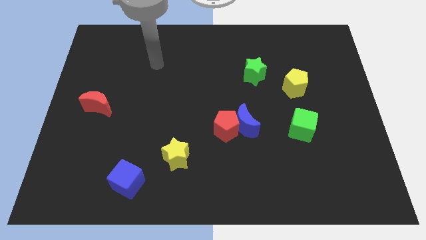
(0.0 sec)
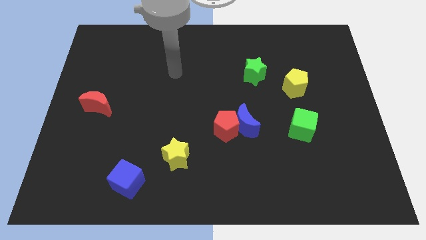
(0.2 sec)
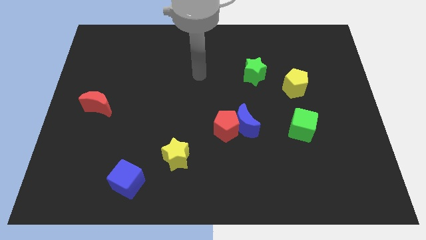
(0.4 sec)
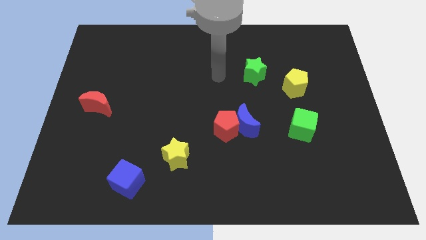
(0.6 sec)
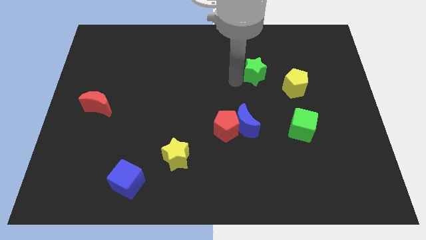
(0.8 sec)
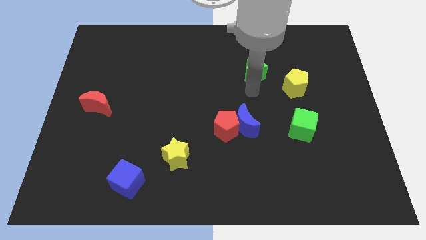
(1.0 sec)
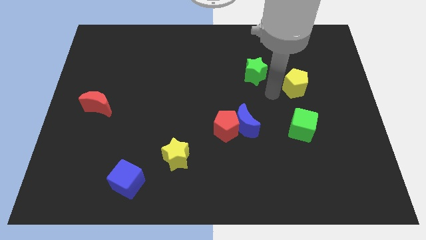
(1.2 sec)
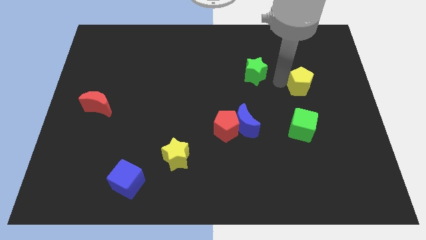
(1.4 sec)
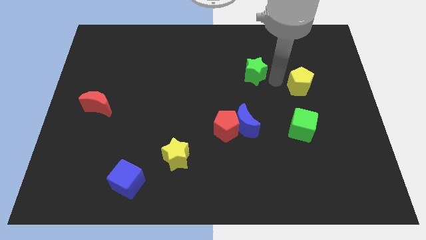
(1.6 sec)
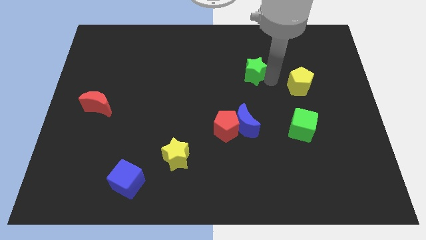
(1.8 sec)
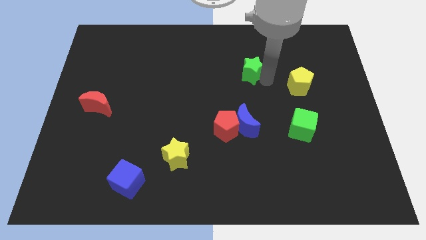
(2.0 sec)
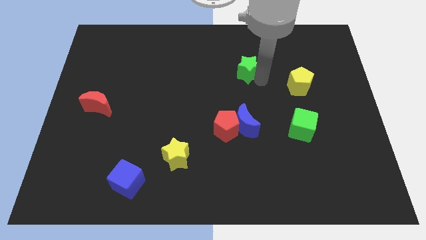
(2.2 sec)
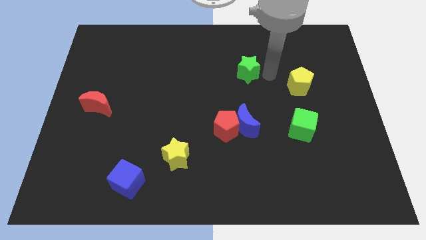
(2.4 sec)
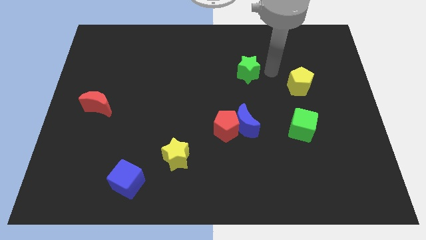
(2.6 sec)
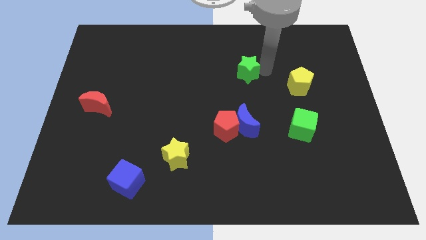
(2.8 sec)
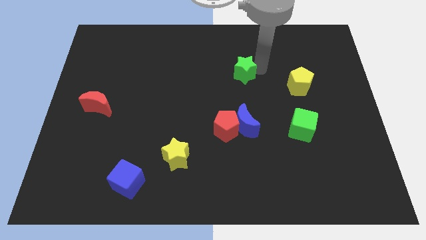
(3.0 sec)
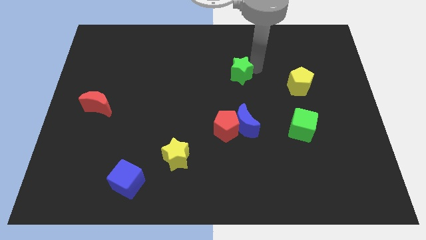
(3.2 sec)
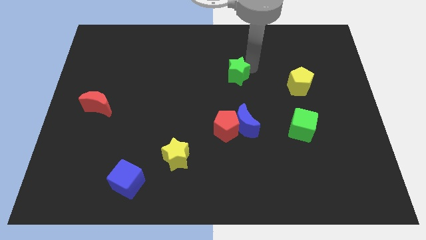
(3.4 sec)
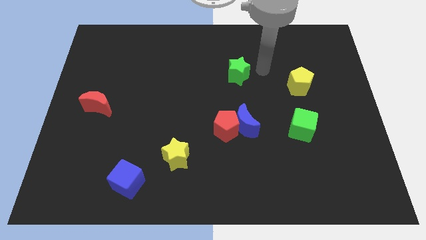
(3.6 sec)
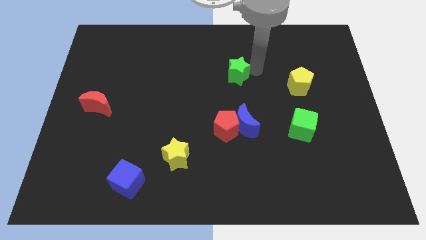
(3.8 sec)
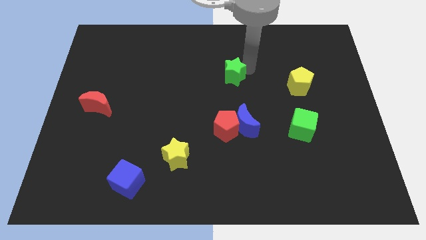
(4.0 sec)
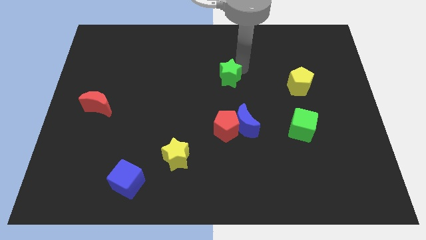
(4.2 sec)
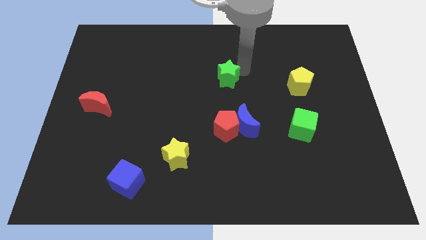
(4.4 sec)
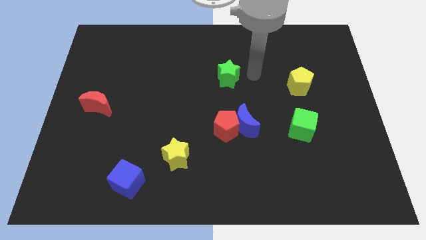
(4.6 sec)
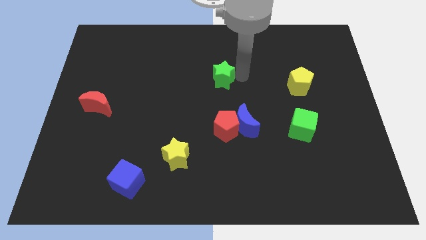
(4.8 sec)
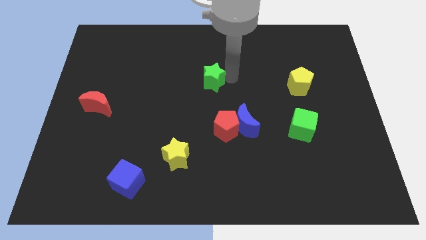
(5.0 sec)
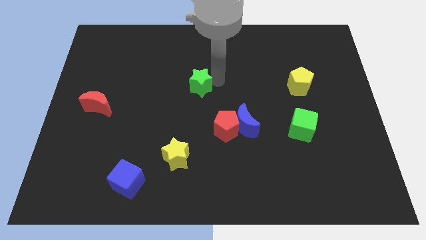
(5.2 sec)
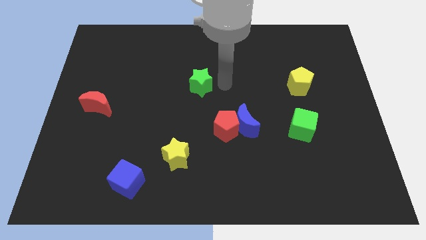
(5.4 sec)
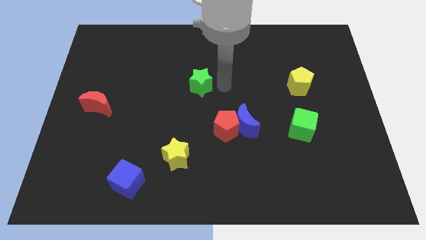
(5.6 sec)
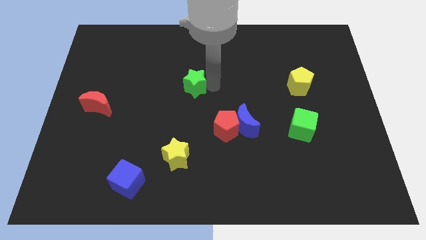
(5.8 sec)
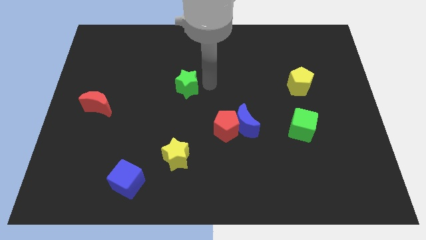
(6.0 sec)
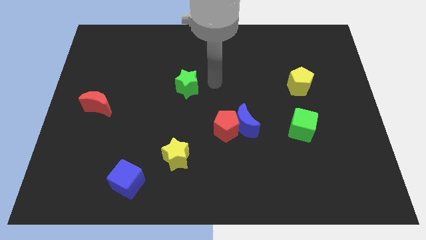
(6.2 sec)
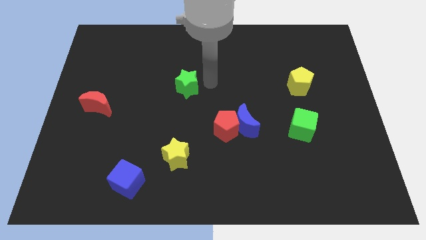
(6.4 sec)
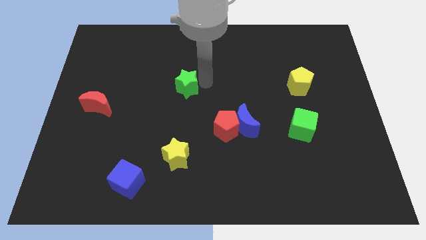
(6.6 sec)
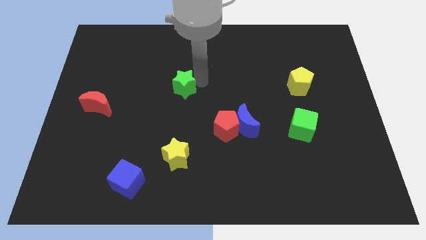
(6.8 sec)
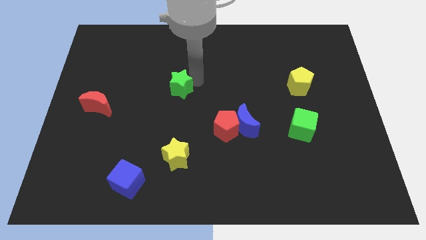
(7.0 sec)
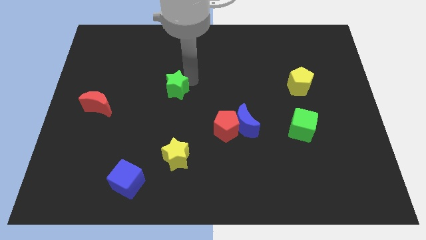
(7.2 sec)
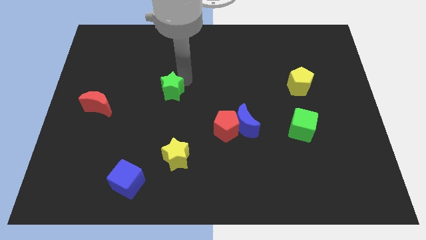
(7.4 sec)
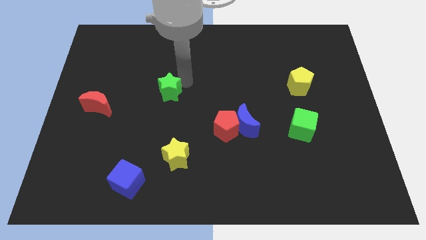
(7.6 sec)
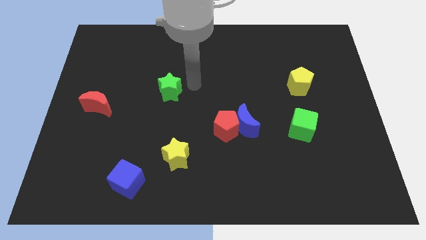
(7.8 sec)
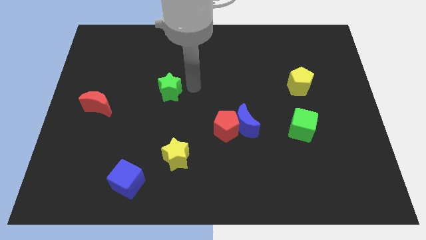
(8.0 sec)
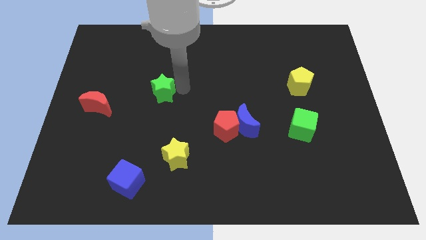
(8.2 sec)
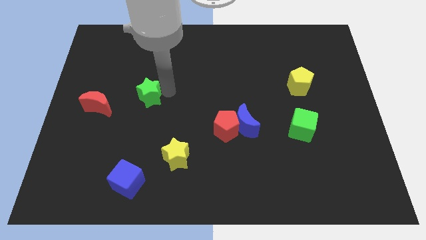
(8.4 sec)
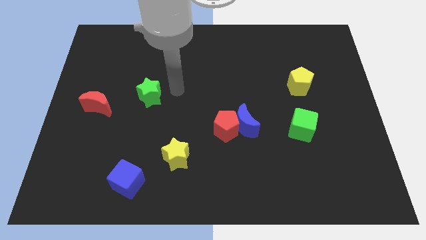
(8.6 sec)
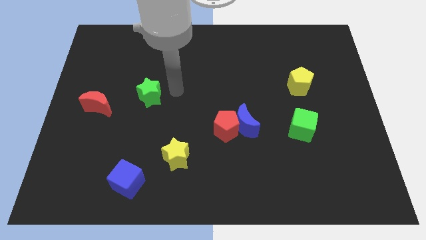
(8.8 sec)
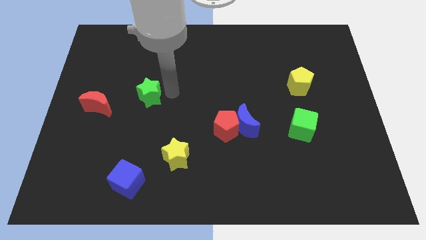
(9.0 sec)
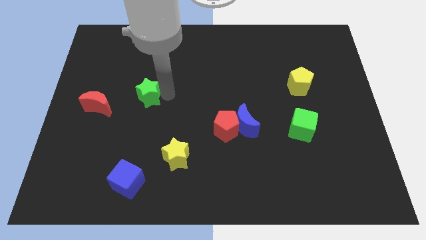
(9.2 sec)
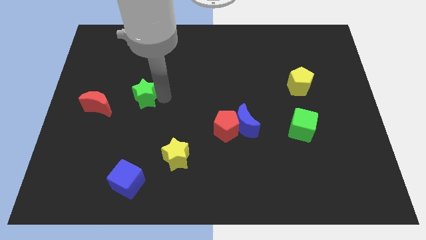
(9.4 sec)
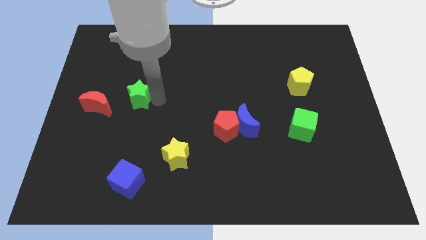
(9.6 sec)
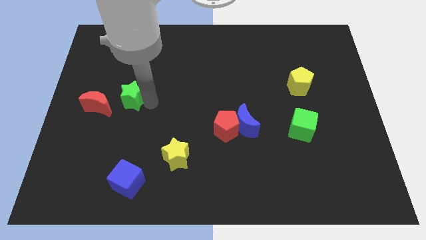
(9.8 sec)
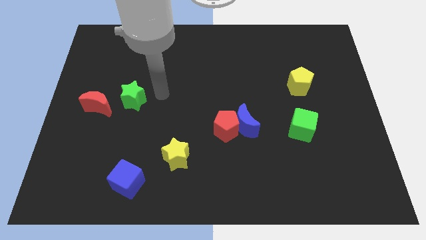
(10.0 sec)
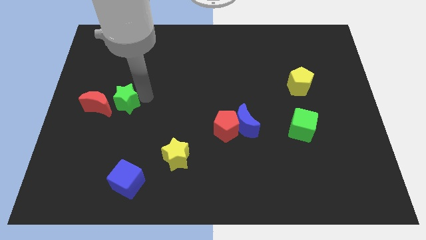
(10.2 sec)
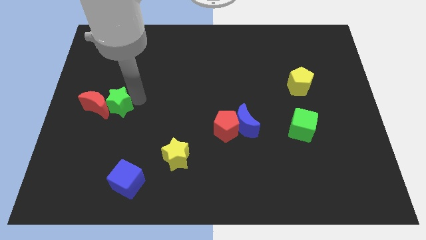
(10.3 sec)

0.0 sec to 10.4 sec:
push the green star to the red moon

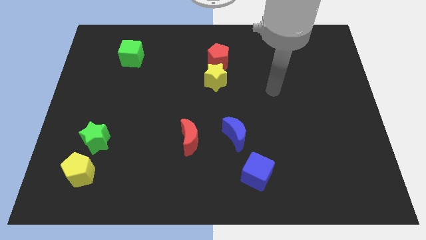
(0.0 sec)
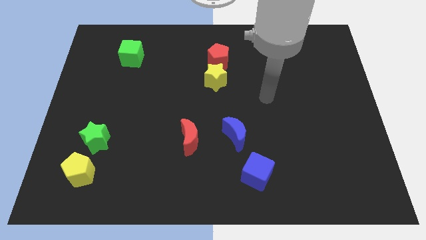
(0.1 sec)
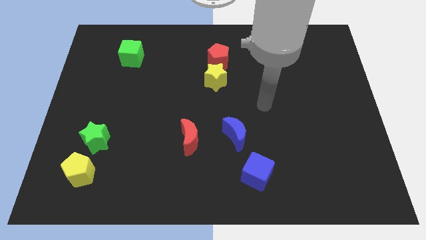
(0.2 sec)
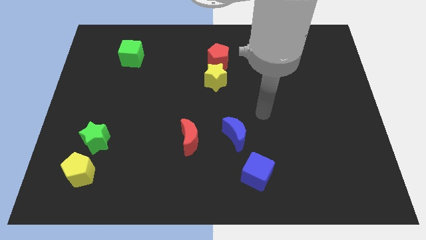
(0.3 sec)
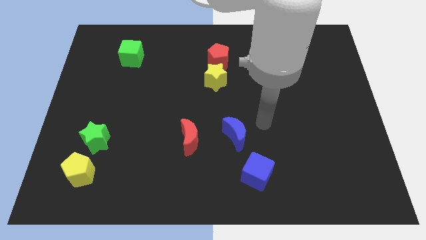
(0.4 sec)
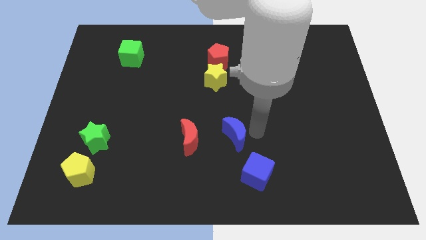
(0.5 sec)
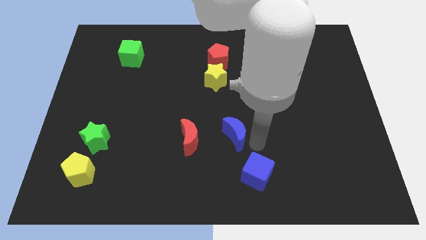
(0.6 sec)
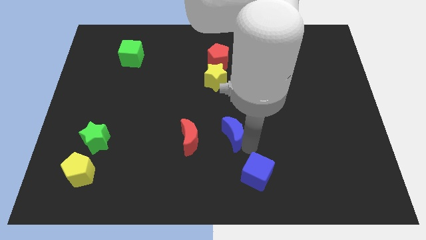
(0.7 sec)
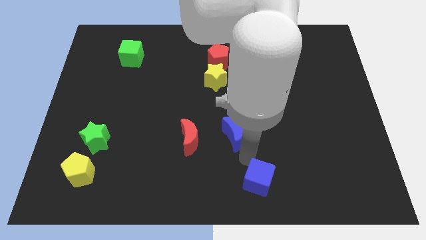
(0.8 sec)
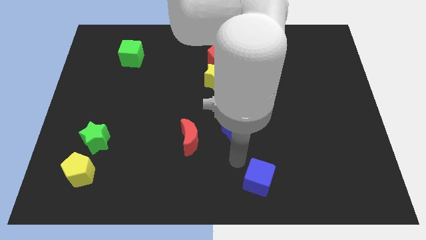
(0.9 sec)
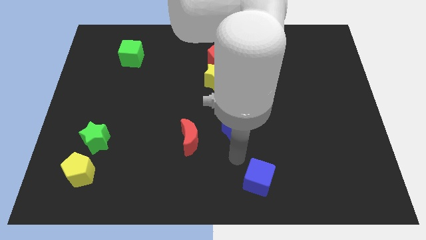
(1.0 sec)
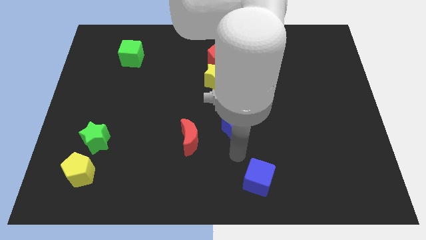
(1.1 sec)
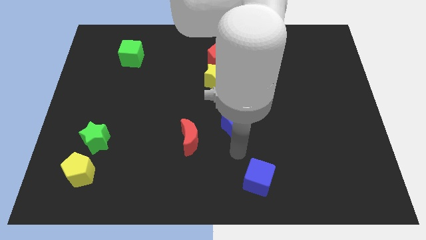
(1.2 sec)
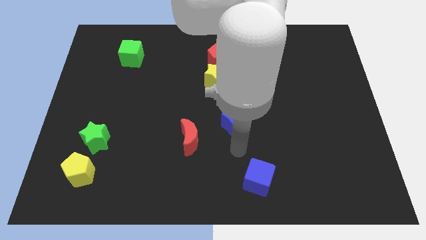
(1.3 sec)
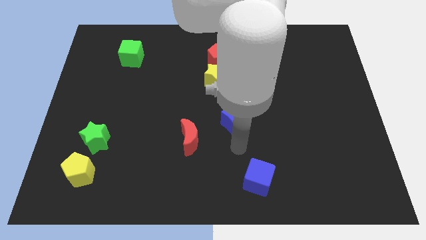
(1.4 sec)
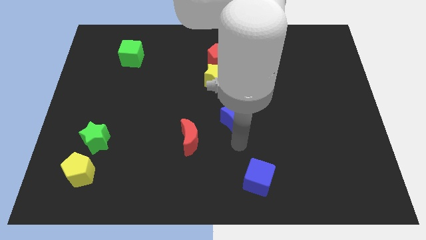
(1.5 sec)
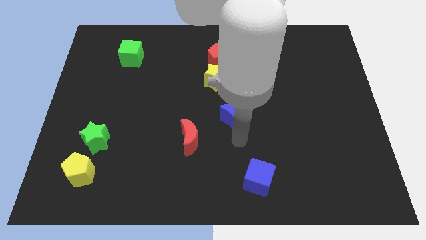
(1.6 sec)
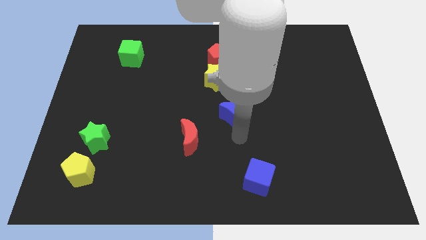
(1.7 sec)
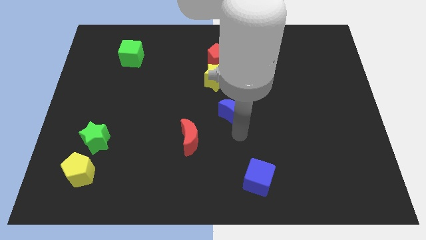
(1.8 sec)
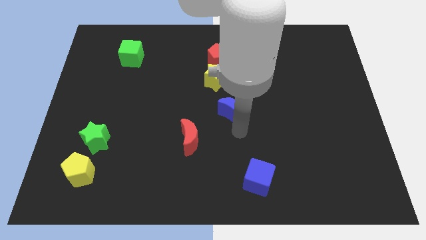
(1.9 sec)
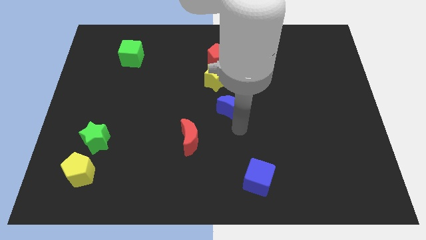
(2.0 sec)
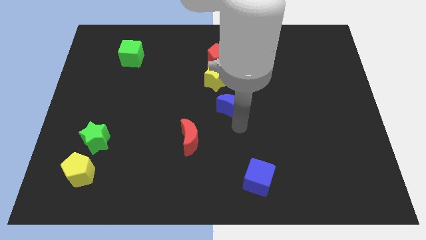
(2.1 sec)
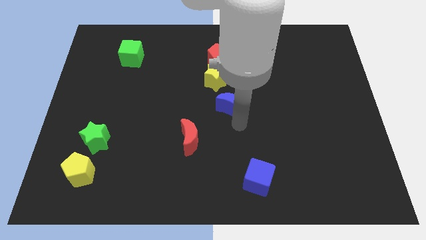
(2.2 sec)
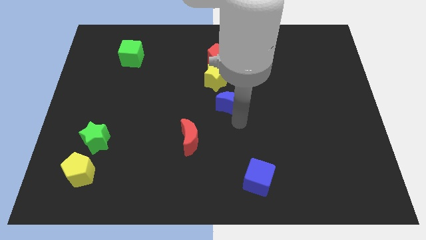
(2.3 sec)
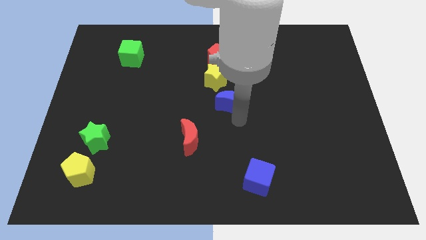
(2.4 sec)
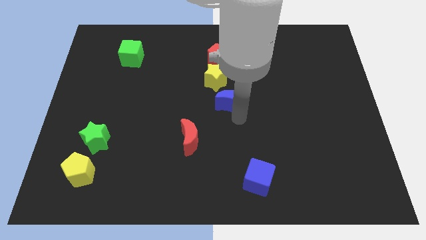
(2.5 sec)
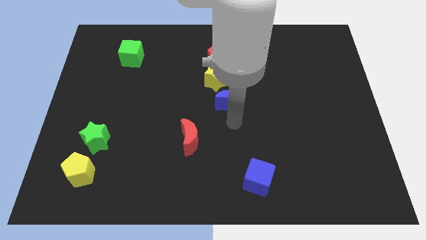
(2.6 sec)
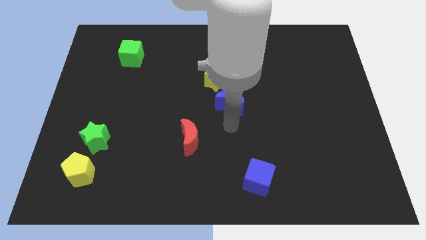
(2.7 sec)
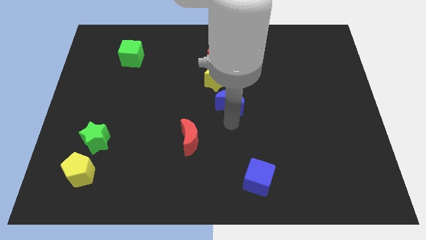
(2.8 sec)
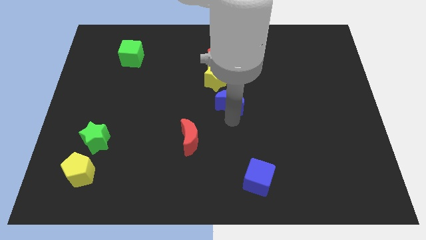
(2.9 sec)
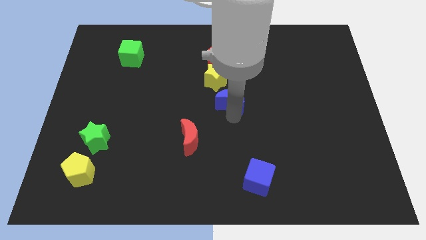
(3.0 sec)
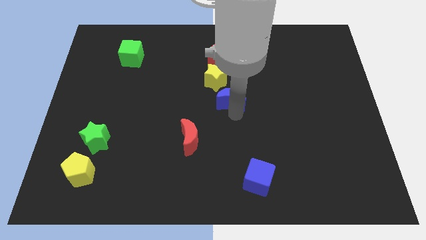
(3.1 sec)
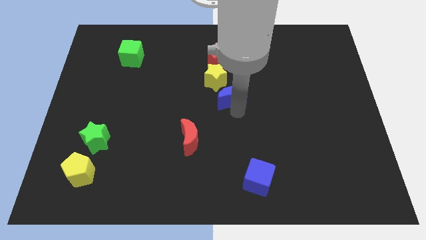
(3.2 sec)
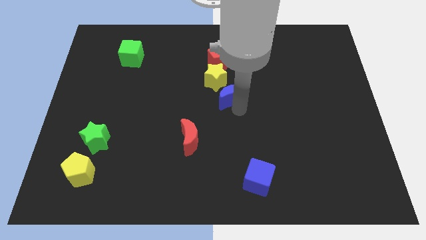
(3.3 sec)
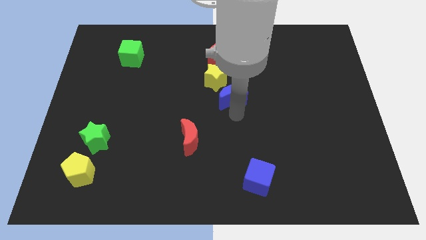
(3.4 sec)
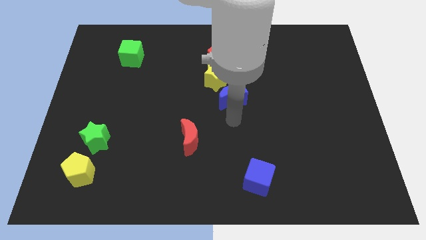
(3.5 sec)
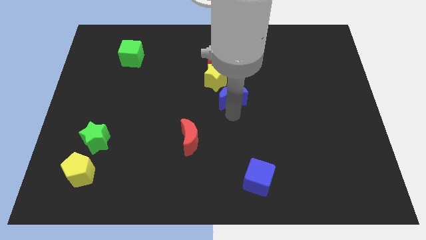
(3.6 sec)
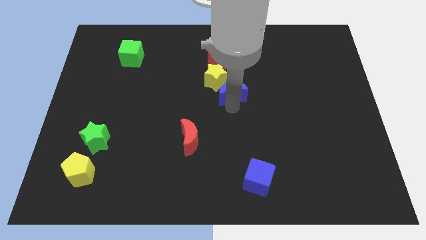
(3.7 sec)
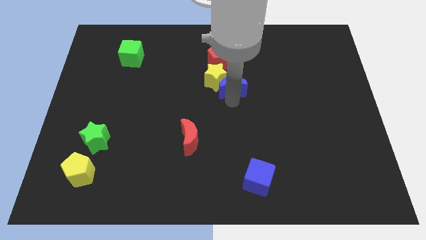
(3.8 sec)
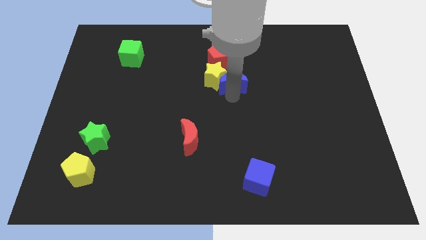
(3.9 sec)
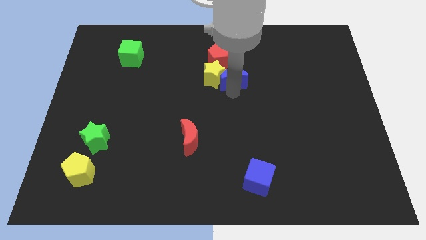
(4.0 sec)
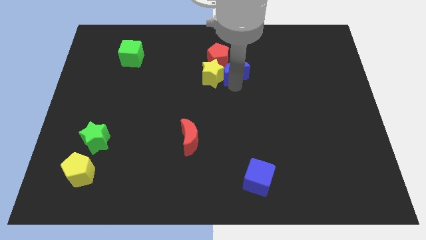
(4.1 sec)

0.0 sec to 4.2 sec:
slide the blue moon next to the red pentagon
